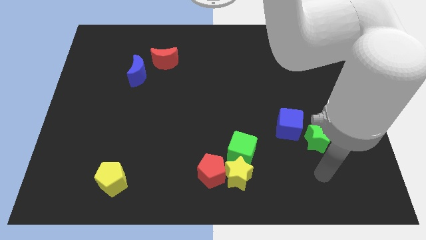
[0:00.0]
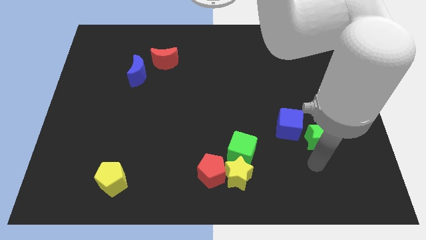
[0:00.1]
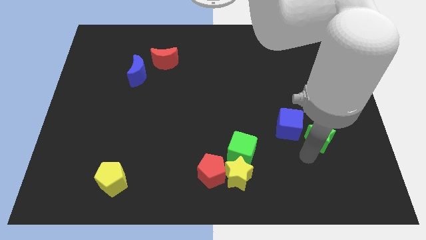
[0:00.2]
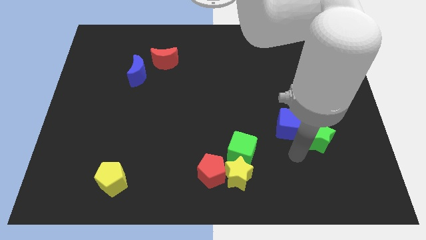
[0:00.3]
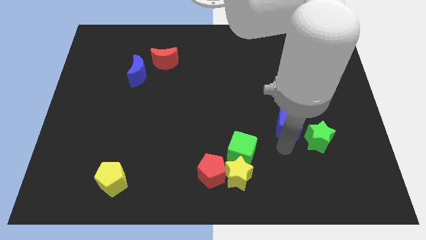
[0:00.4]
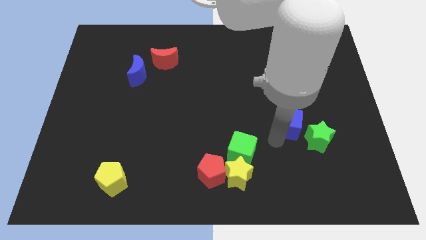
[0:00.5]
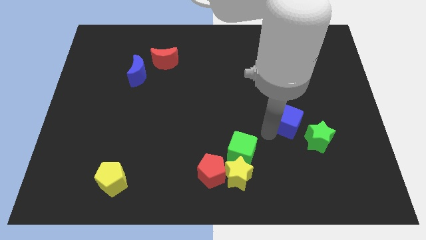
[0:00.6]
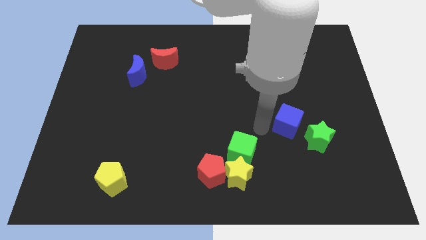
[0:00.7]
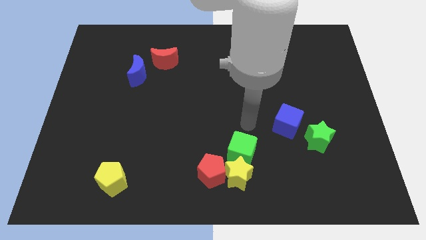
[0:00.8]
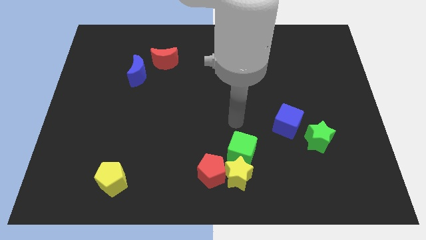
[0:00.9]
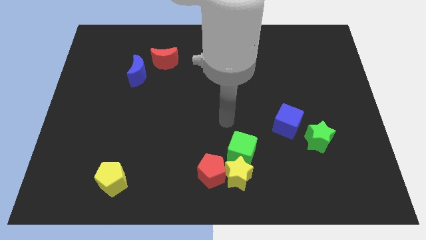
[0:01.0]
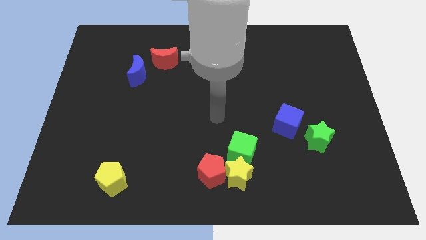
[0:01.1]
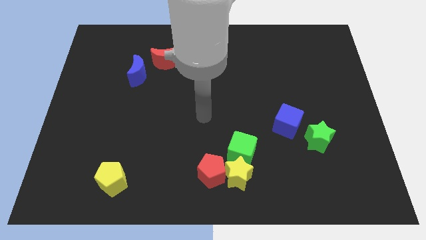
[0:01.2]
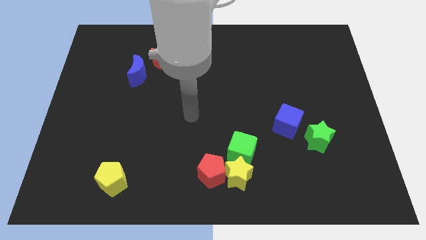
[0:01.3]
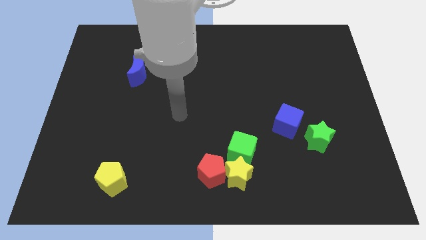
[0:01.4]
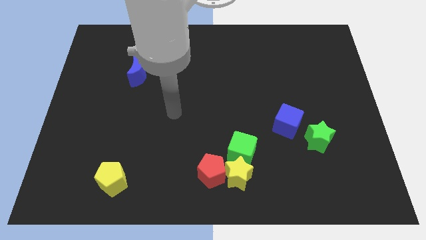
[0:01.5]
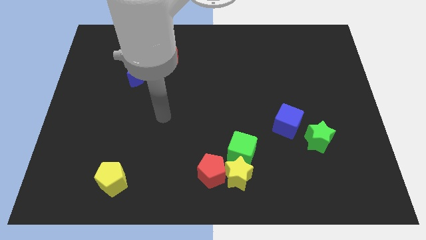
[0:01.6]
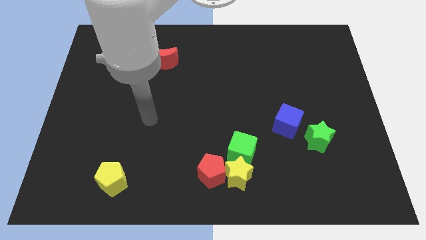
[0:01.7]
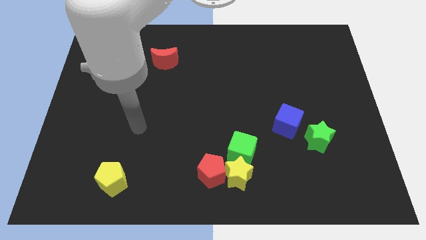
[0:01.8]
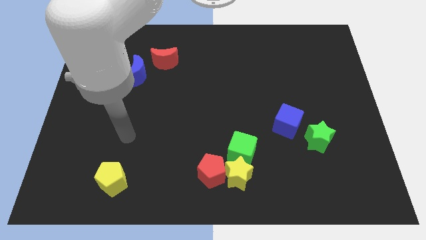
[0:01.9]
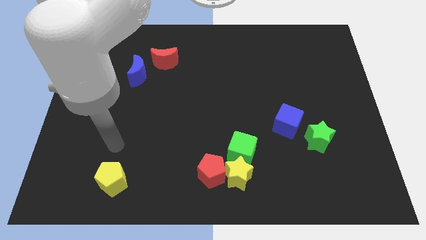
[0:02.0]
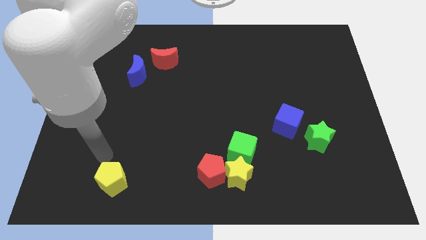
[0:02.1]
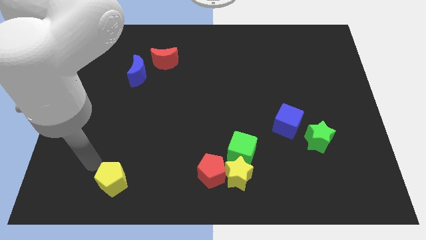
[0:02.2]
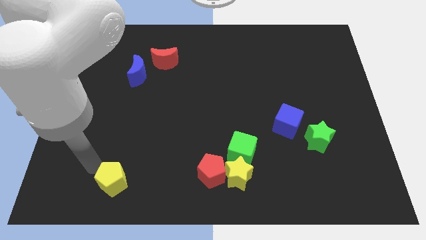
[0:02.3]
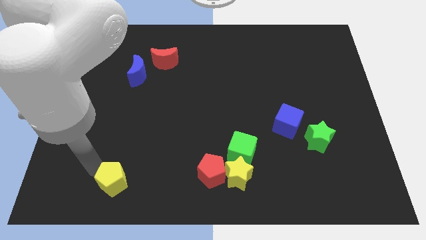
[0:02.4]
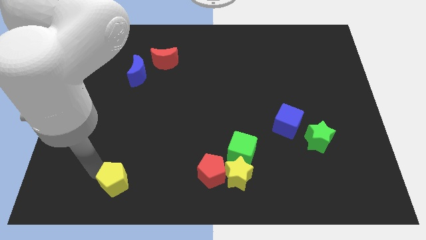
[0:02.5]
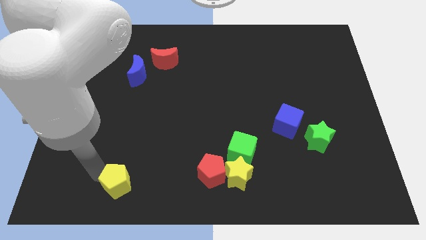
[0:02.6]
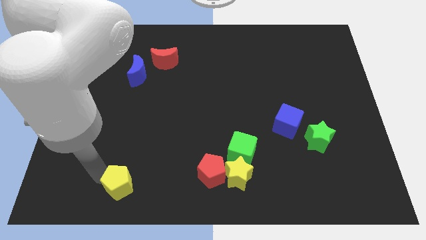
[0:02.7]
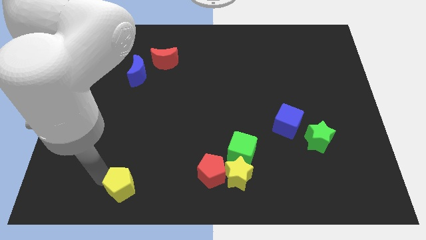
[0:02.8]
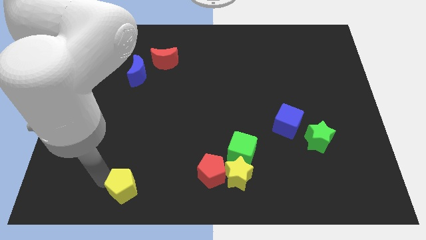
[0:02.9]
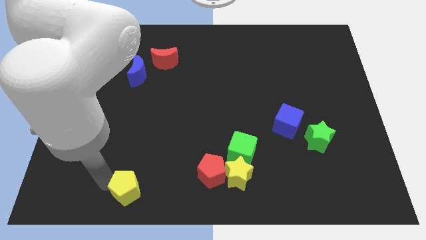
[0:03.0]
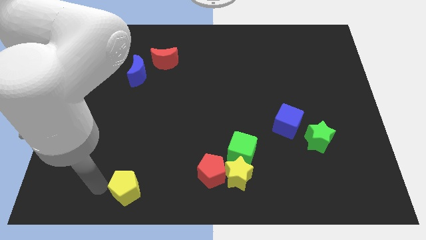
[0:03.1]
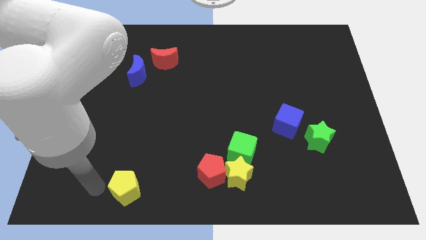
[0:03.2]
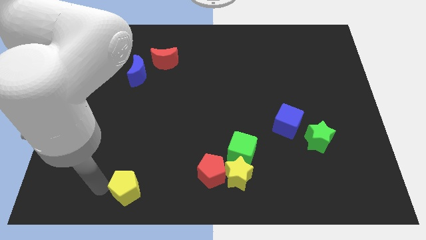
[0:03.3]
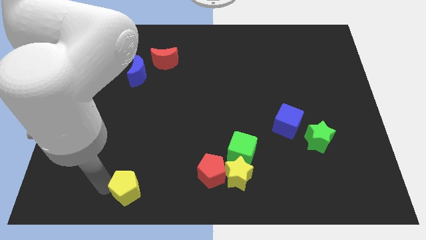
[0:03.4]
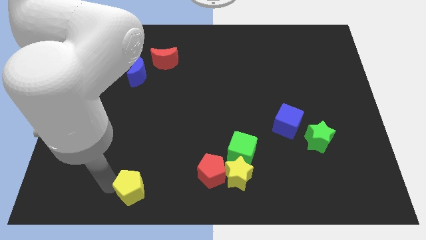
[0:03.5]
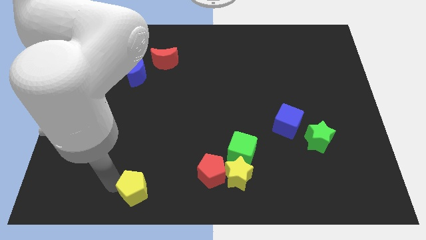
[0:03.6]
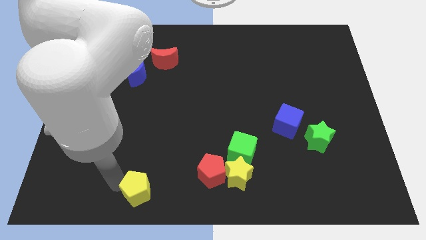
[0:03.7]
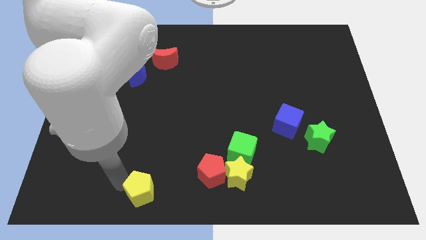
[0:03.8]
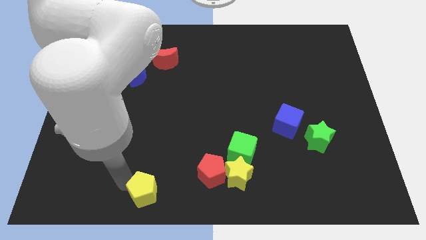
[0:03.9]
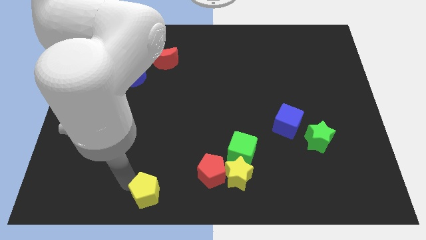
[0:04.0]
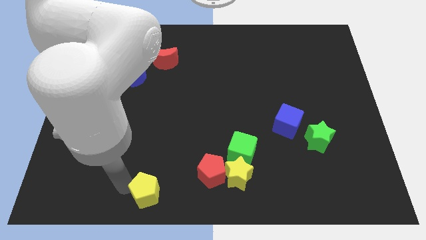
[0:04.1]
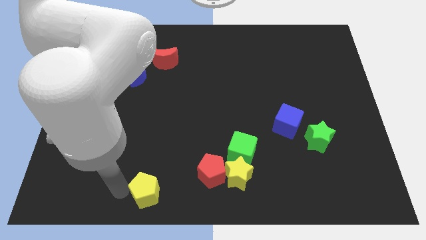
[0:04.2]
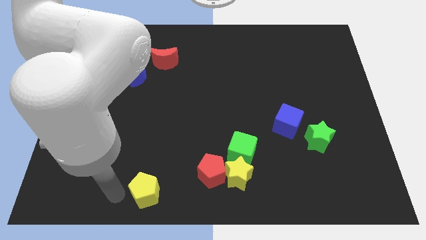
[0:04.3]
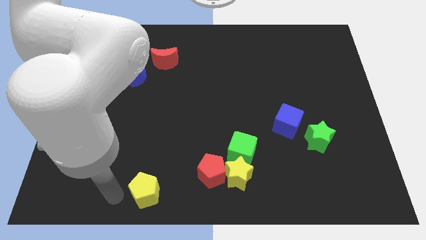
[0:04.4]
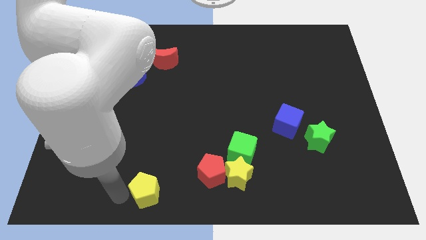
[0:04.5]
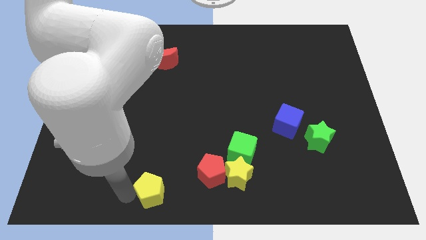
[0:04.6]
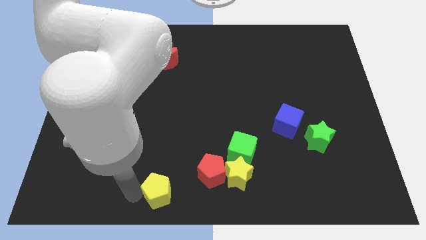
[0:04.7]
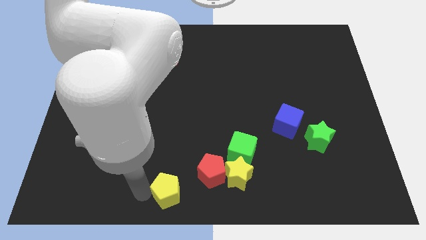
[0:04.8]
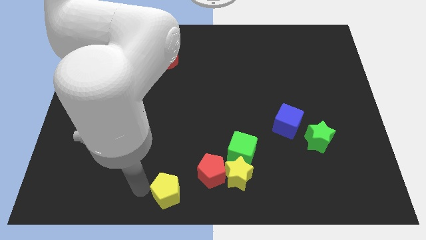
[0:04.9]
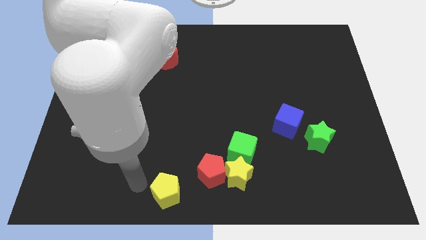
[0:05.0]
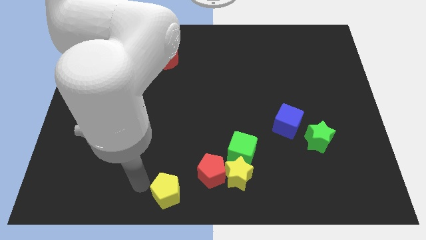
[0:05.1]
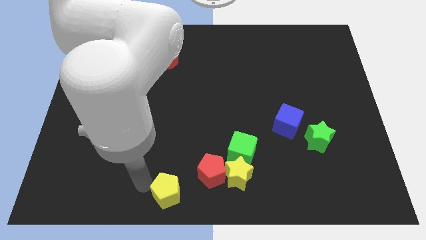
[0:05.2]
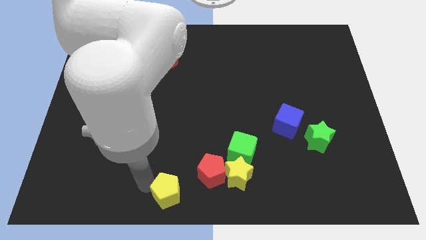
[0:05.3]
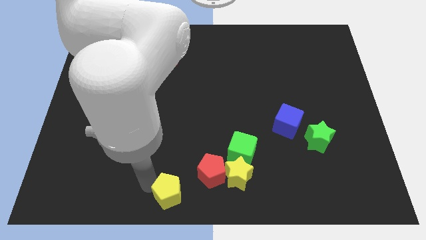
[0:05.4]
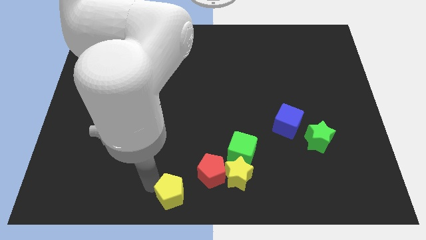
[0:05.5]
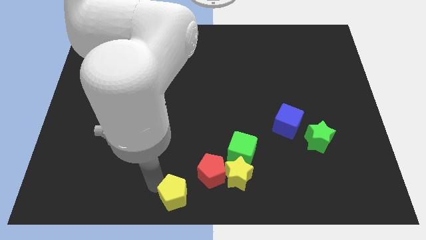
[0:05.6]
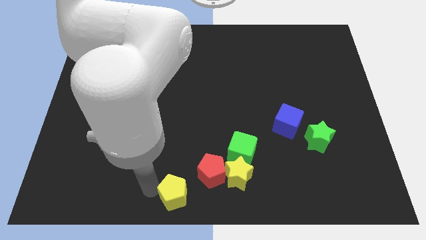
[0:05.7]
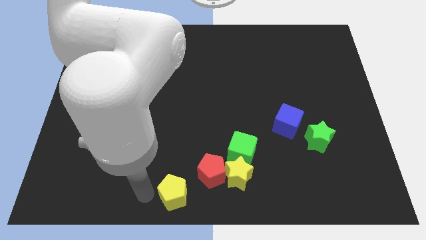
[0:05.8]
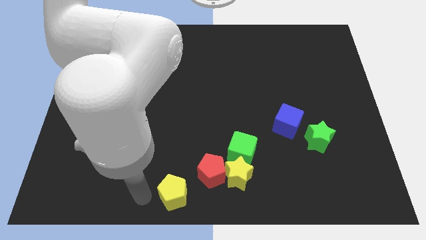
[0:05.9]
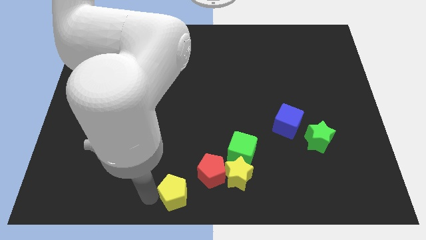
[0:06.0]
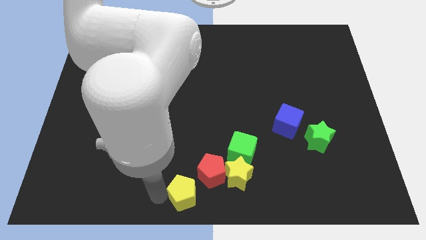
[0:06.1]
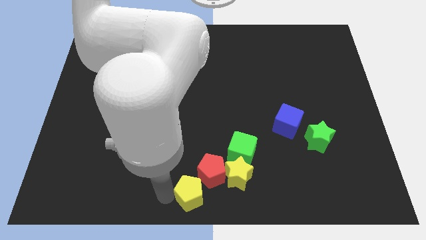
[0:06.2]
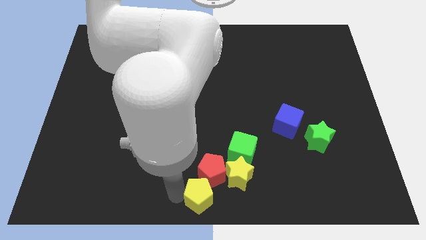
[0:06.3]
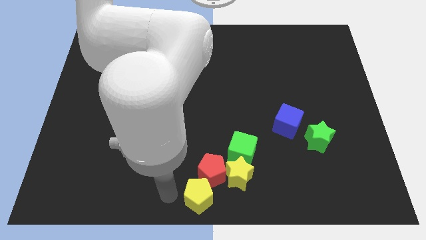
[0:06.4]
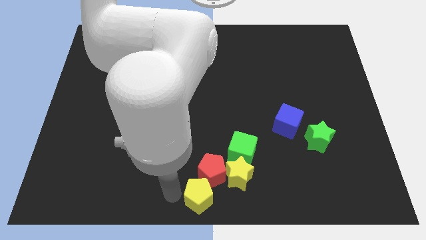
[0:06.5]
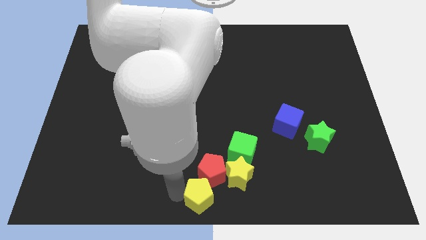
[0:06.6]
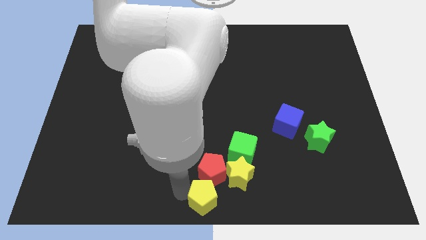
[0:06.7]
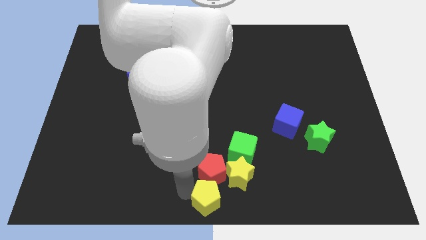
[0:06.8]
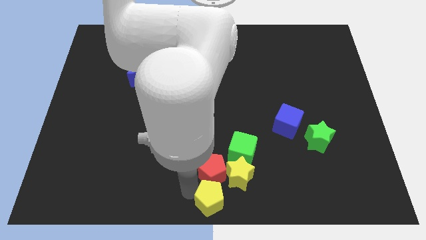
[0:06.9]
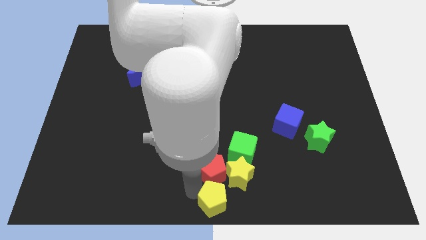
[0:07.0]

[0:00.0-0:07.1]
push the yellow pentagon right

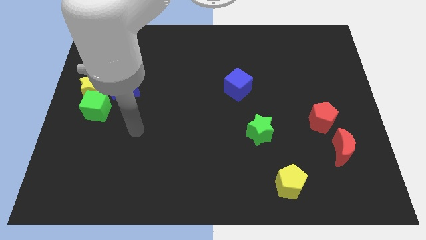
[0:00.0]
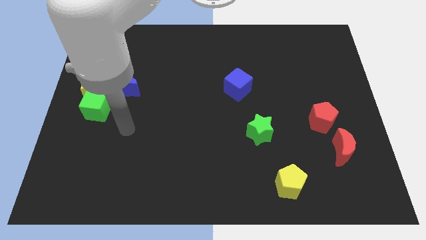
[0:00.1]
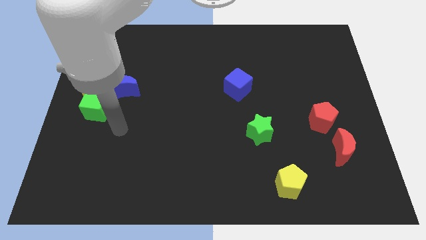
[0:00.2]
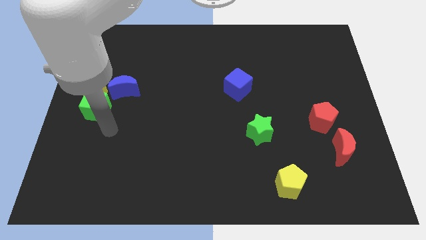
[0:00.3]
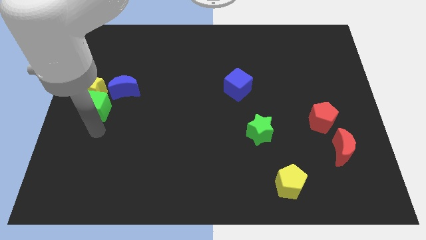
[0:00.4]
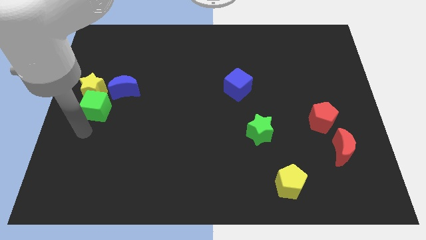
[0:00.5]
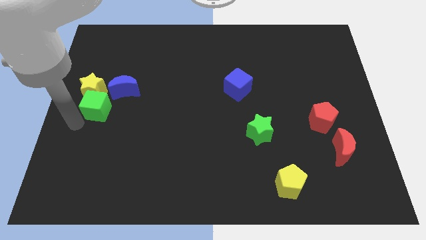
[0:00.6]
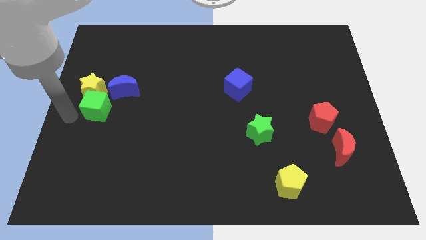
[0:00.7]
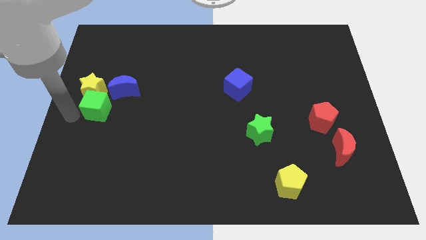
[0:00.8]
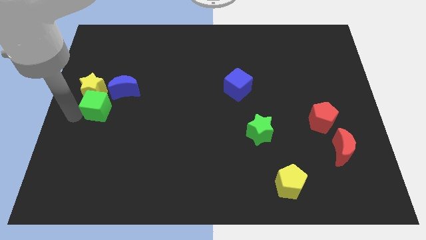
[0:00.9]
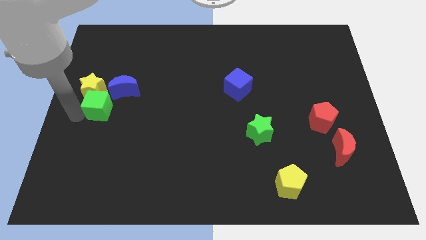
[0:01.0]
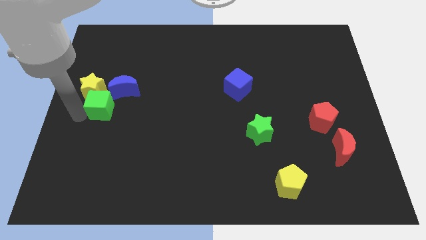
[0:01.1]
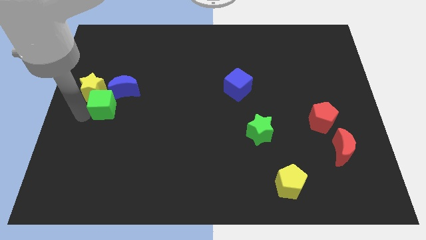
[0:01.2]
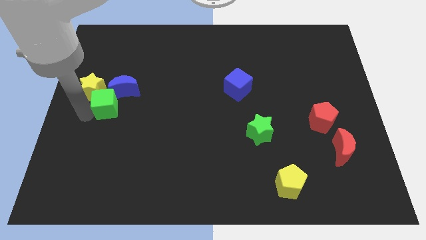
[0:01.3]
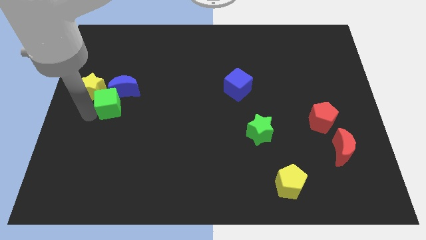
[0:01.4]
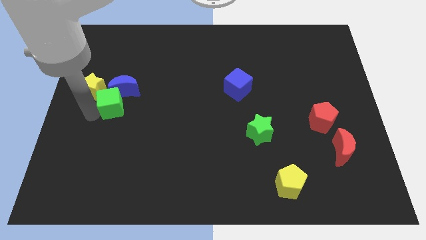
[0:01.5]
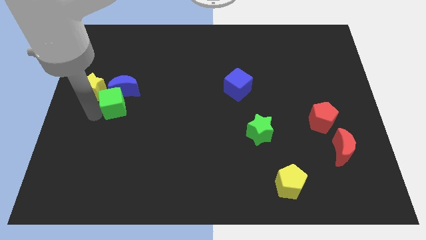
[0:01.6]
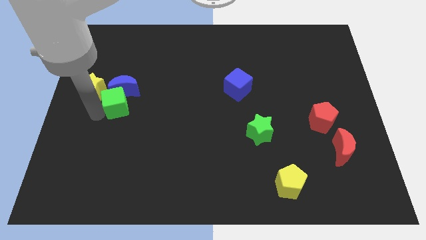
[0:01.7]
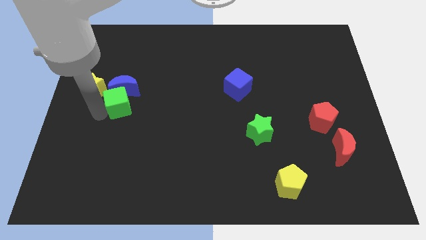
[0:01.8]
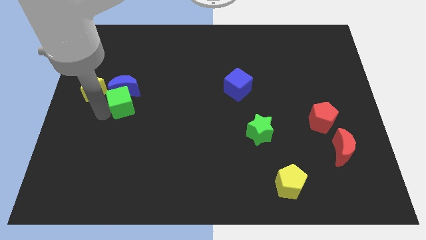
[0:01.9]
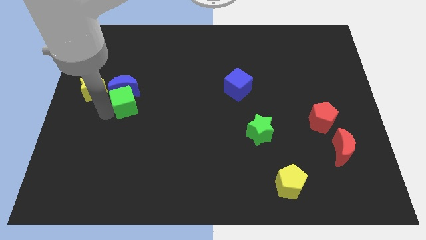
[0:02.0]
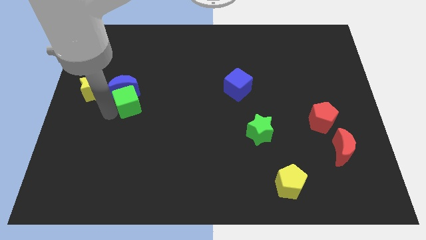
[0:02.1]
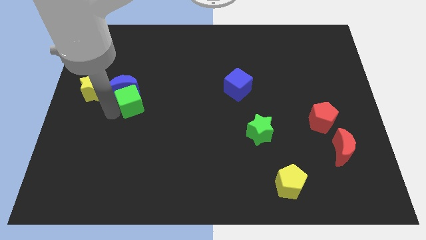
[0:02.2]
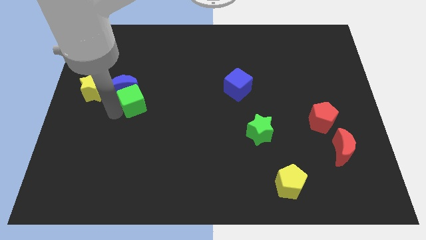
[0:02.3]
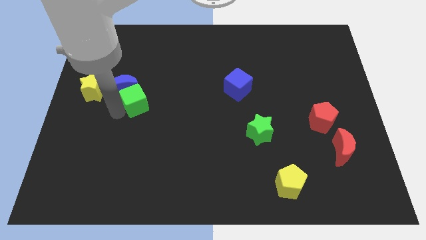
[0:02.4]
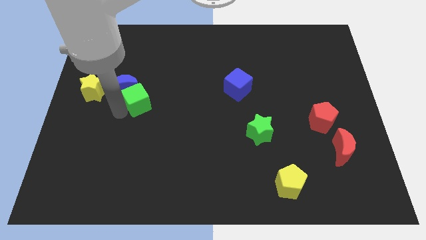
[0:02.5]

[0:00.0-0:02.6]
slide the green cube somewhat up and to the right
